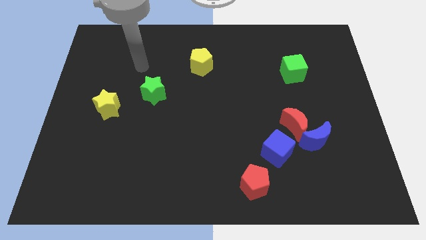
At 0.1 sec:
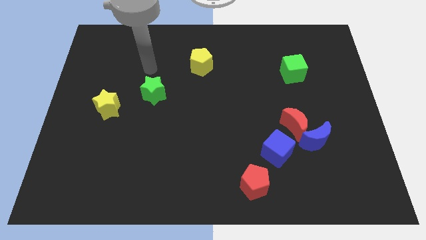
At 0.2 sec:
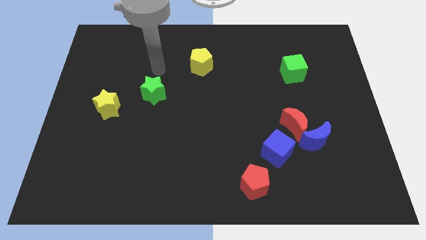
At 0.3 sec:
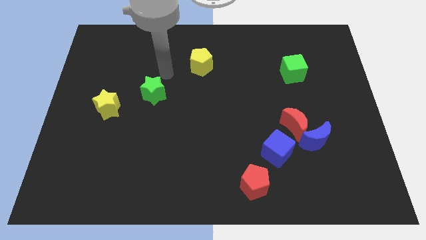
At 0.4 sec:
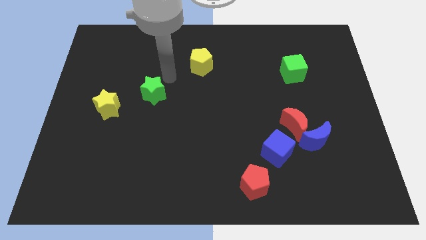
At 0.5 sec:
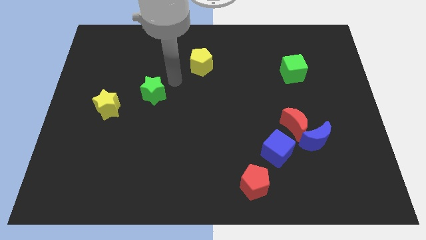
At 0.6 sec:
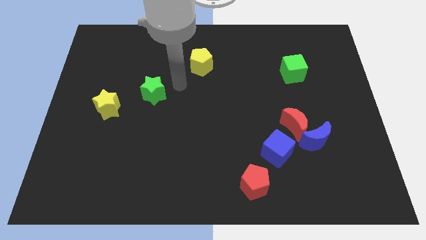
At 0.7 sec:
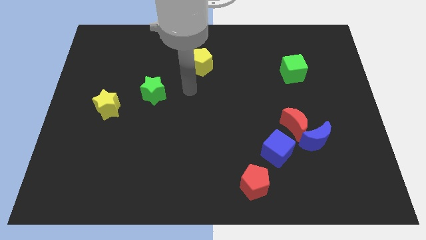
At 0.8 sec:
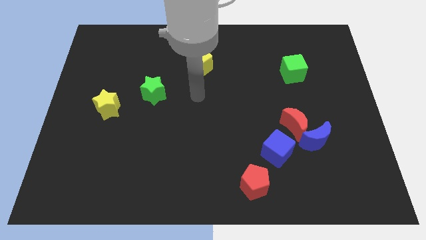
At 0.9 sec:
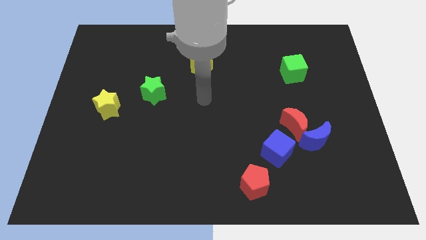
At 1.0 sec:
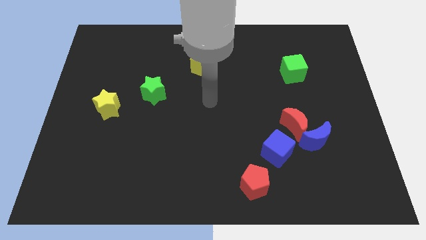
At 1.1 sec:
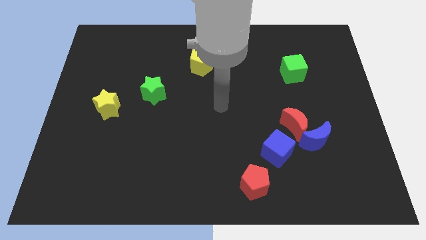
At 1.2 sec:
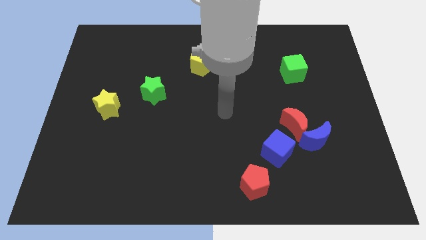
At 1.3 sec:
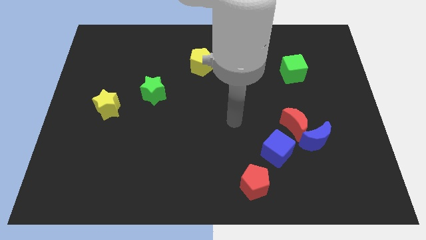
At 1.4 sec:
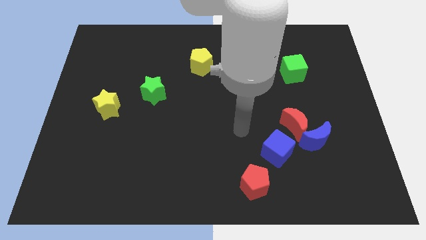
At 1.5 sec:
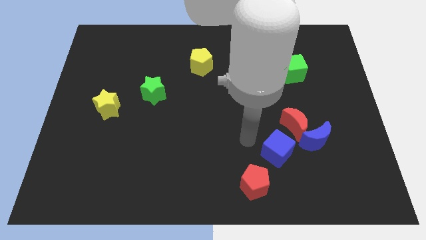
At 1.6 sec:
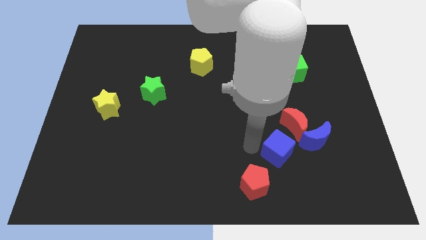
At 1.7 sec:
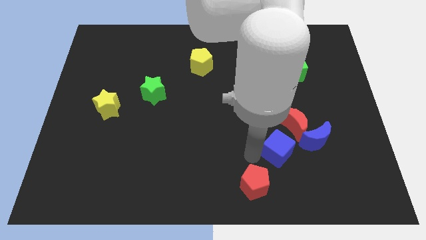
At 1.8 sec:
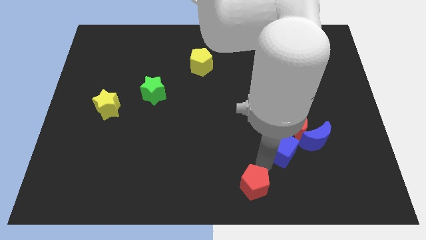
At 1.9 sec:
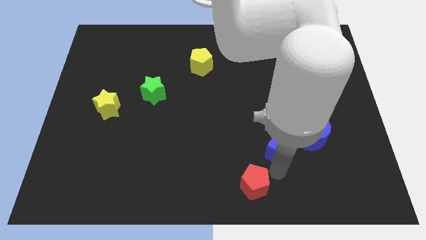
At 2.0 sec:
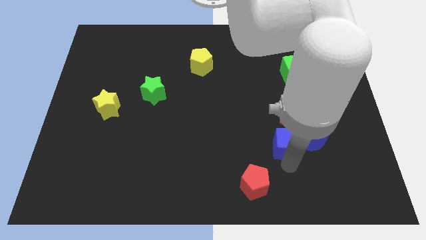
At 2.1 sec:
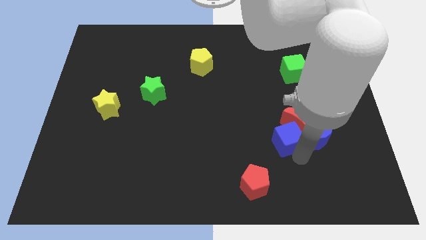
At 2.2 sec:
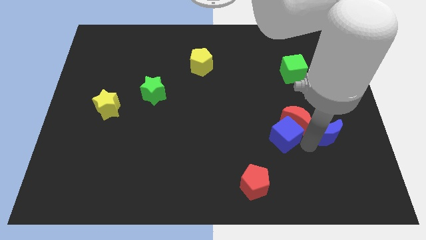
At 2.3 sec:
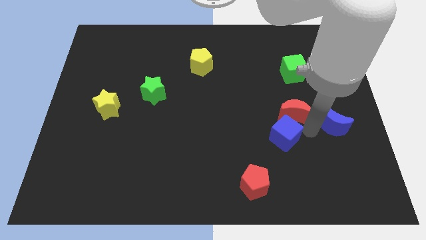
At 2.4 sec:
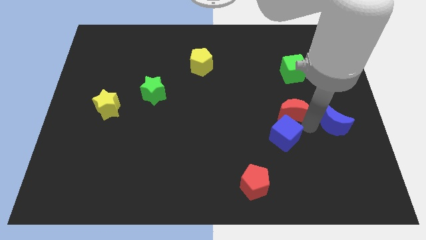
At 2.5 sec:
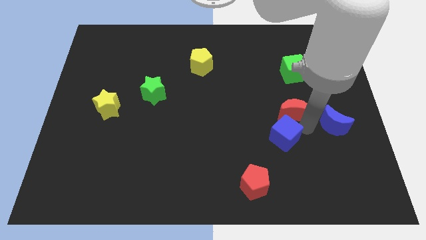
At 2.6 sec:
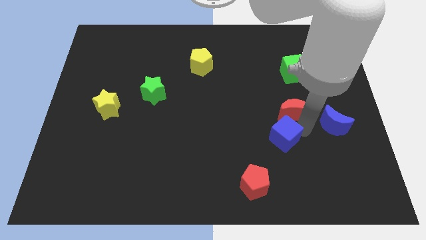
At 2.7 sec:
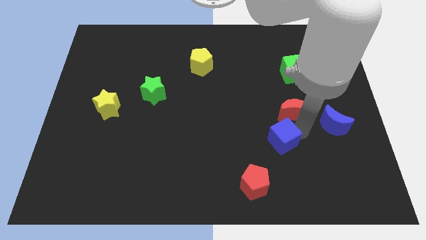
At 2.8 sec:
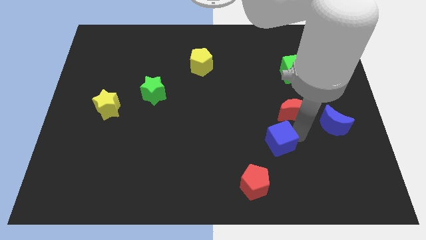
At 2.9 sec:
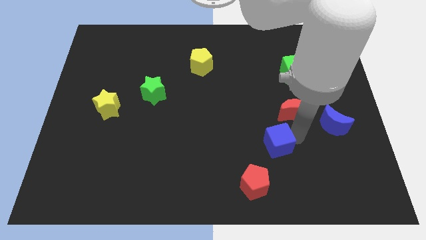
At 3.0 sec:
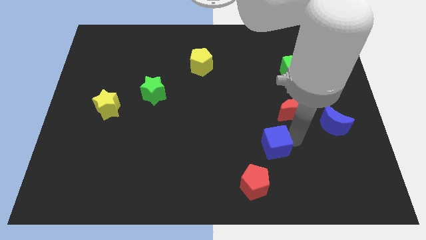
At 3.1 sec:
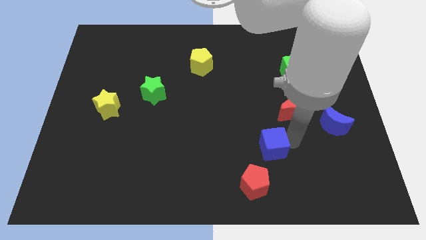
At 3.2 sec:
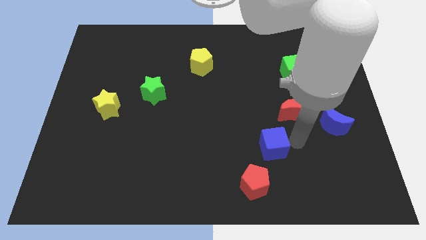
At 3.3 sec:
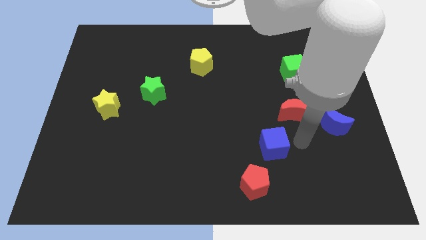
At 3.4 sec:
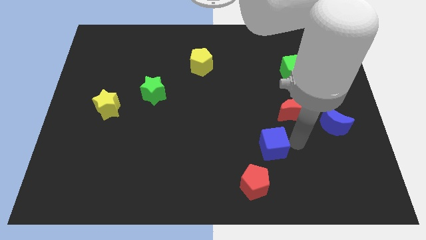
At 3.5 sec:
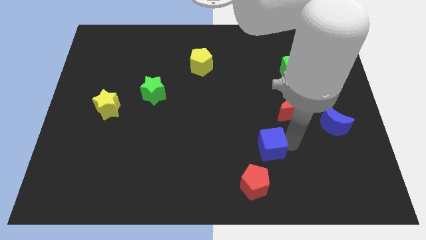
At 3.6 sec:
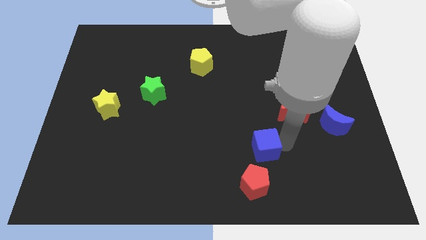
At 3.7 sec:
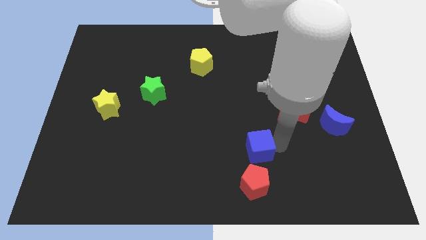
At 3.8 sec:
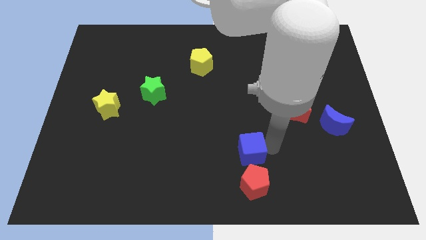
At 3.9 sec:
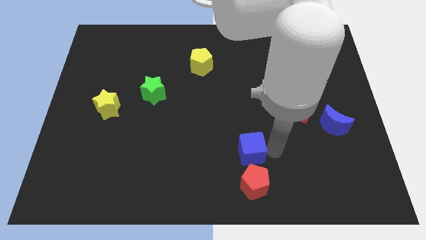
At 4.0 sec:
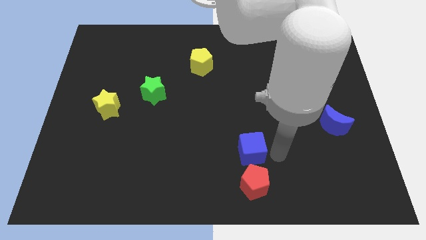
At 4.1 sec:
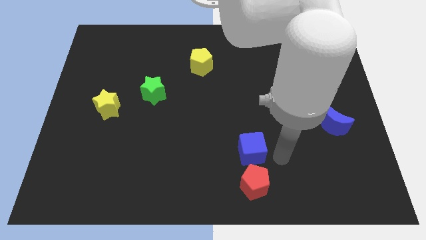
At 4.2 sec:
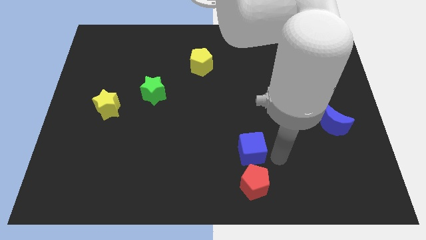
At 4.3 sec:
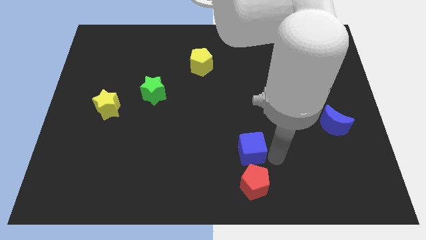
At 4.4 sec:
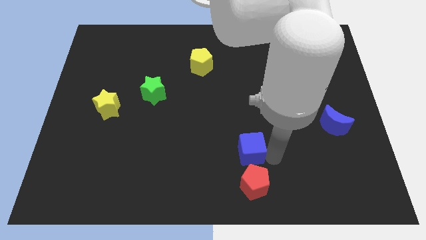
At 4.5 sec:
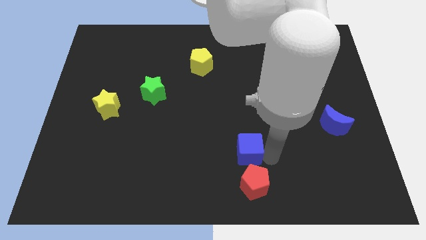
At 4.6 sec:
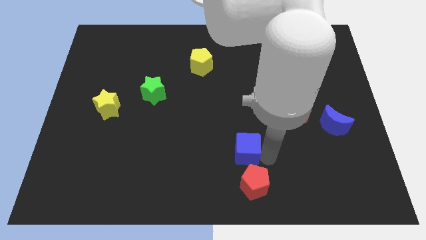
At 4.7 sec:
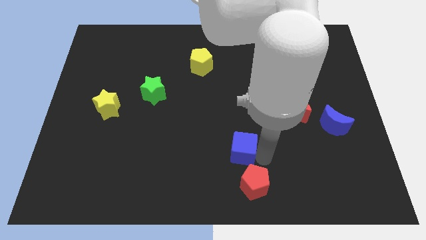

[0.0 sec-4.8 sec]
slightly slide the blue cube left

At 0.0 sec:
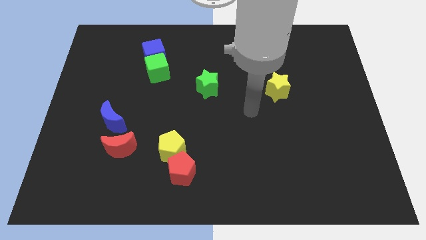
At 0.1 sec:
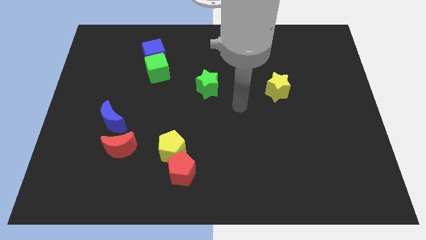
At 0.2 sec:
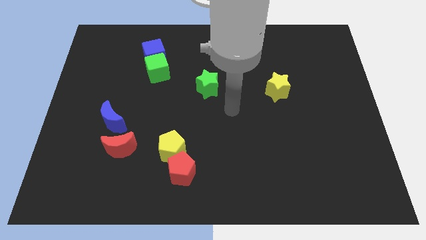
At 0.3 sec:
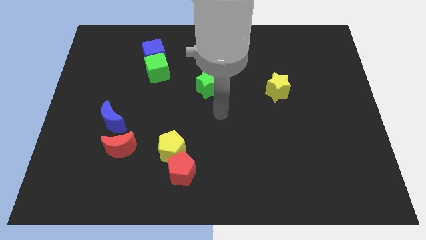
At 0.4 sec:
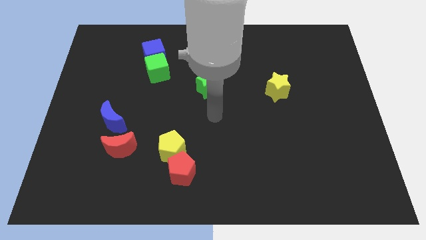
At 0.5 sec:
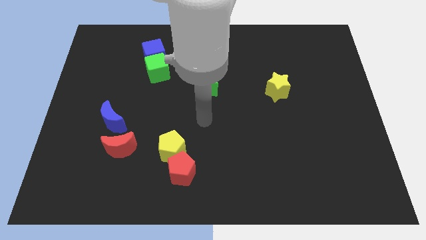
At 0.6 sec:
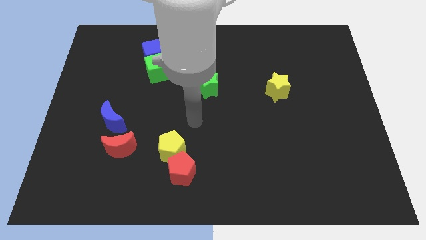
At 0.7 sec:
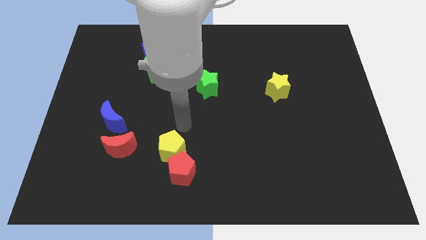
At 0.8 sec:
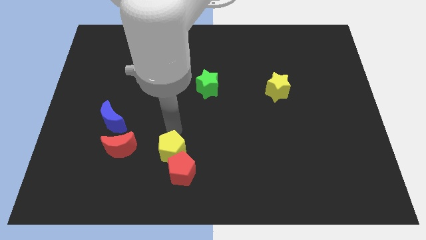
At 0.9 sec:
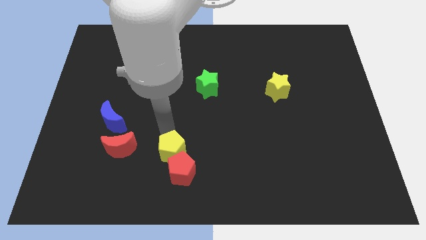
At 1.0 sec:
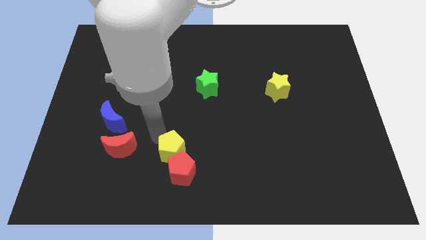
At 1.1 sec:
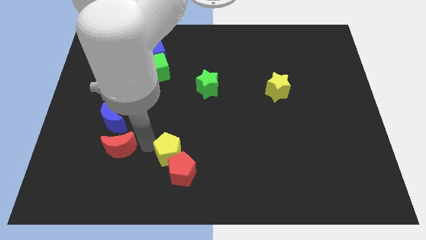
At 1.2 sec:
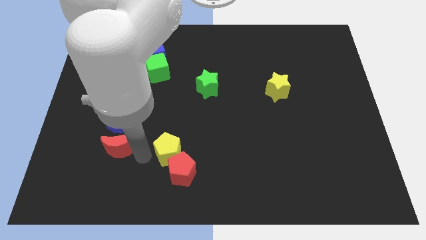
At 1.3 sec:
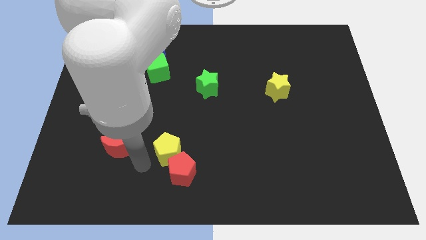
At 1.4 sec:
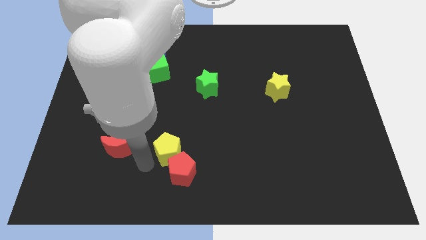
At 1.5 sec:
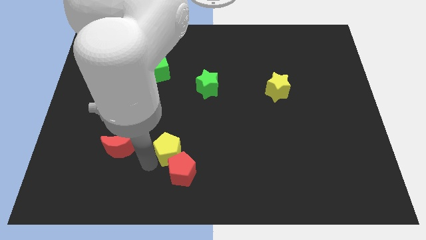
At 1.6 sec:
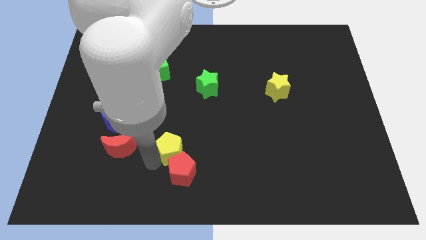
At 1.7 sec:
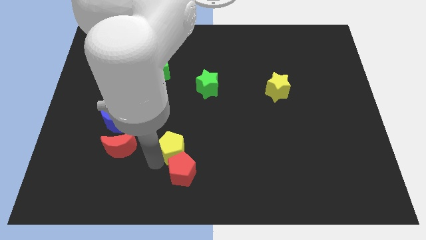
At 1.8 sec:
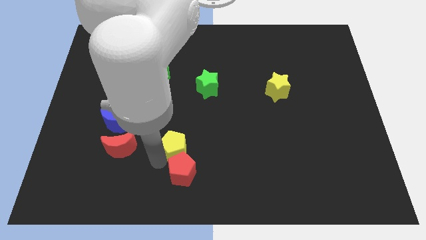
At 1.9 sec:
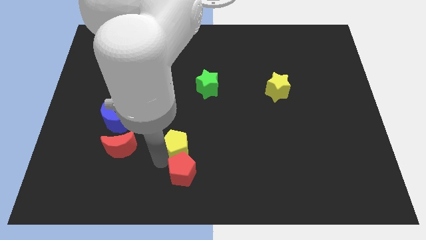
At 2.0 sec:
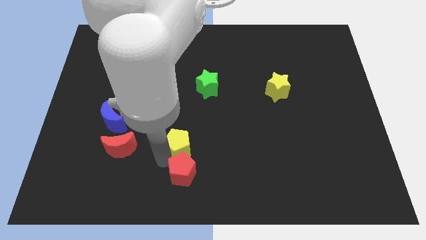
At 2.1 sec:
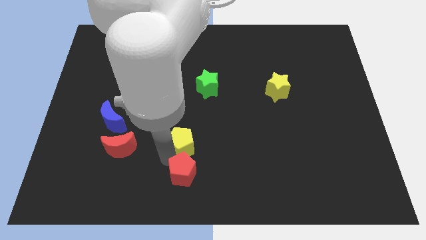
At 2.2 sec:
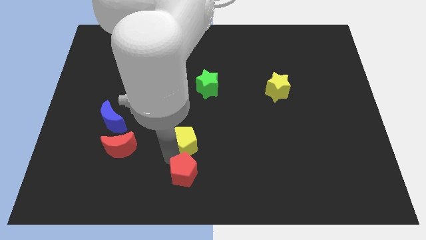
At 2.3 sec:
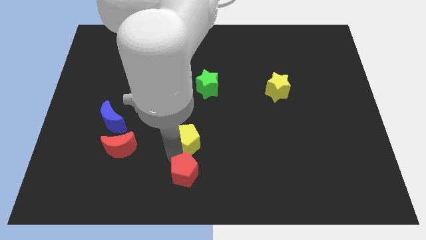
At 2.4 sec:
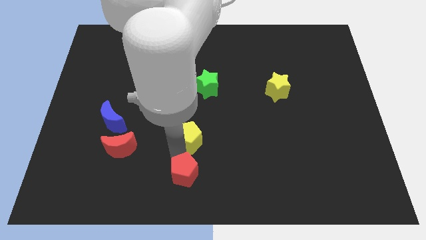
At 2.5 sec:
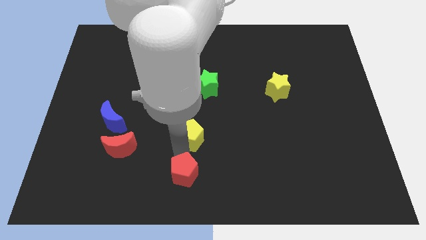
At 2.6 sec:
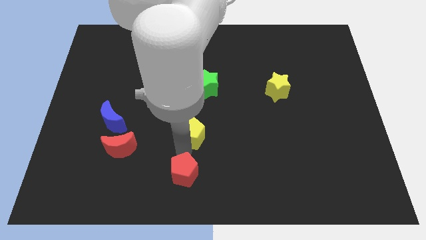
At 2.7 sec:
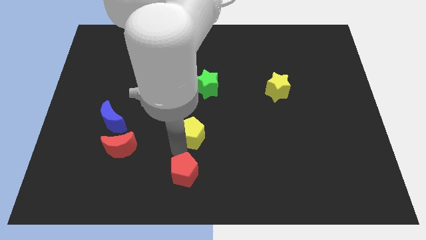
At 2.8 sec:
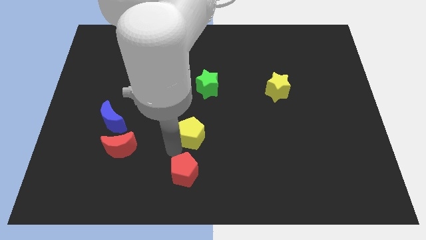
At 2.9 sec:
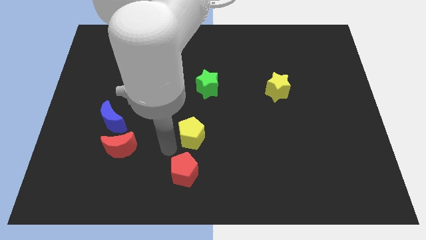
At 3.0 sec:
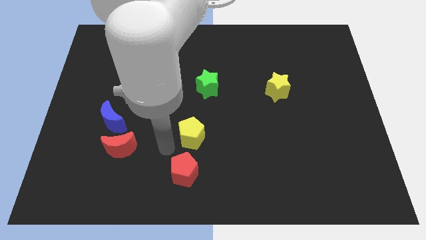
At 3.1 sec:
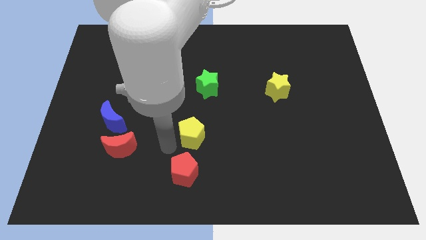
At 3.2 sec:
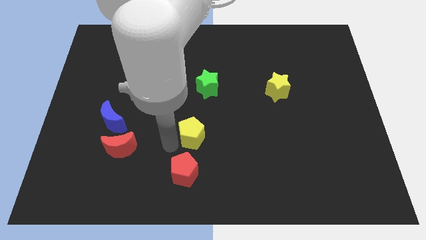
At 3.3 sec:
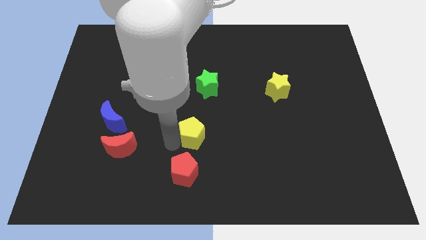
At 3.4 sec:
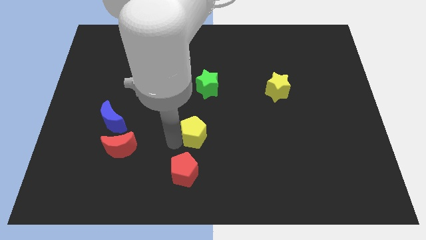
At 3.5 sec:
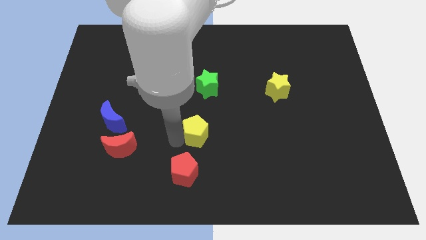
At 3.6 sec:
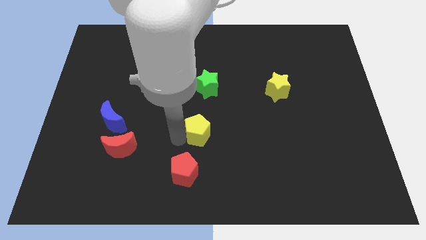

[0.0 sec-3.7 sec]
push the yellow pentagon upwards and then to the right a bit
